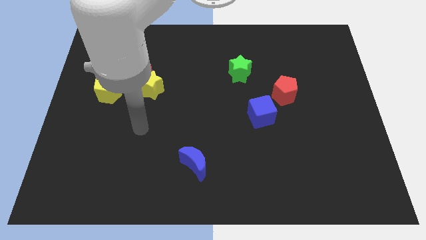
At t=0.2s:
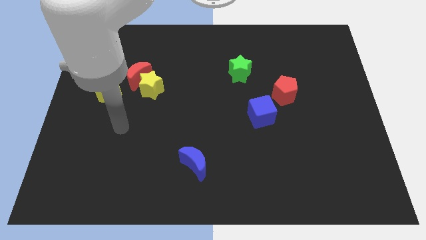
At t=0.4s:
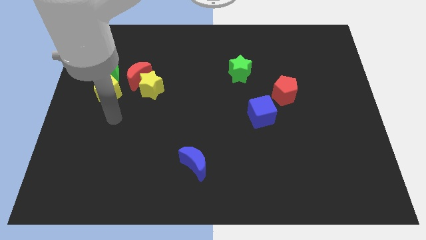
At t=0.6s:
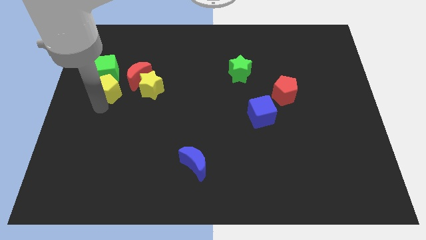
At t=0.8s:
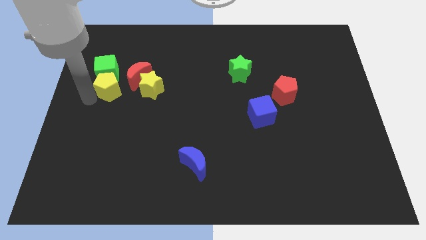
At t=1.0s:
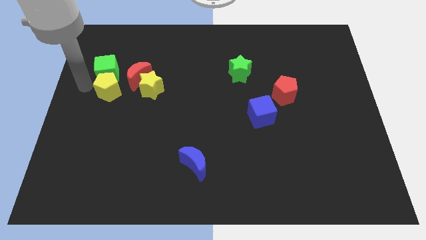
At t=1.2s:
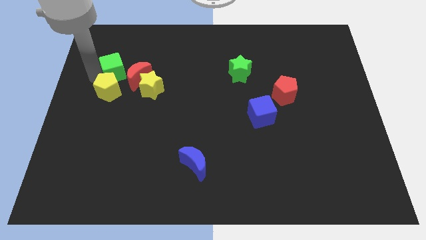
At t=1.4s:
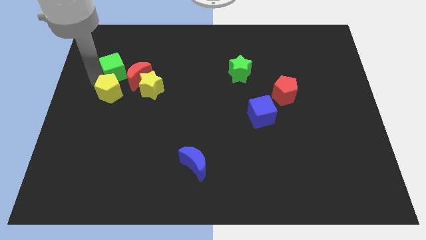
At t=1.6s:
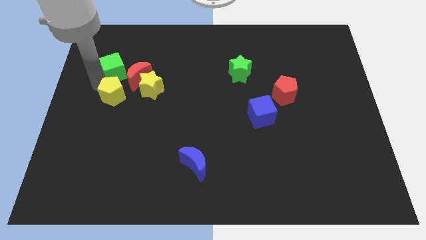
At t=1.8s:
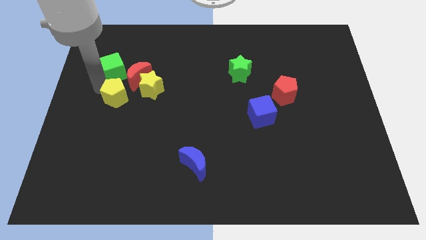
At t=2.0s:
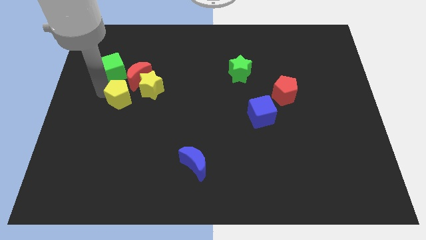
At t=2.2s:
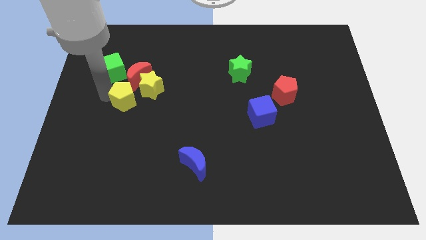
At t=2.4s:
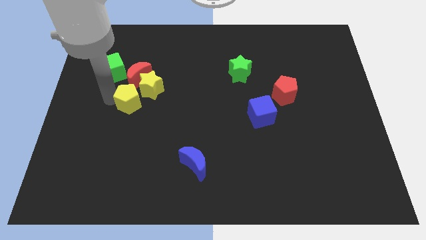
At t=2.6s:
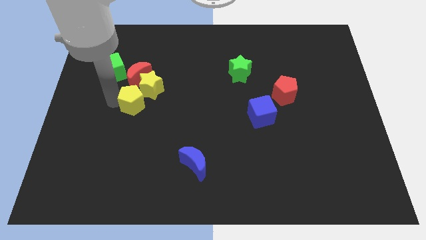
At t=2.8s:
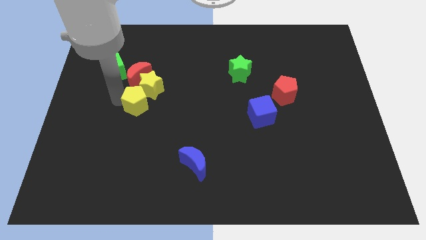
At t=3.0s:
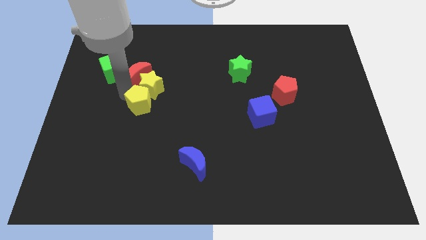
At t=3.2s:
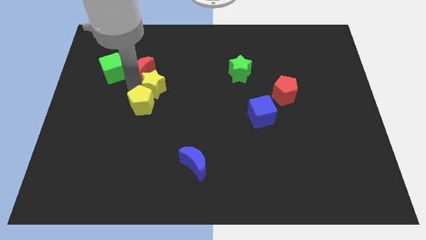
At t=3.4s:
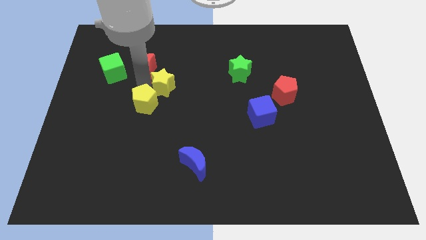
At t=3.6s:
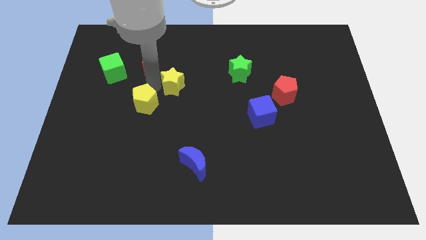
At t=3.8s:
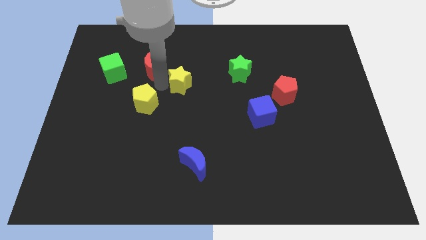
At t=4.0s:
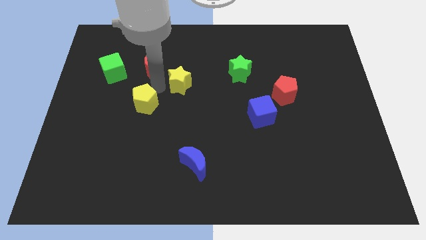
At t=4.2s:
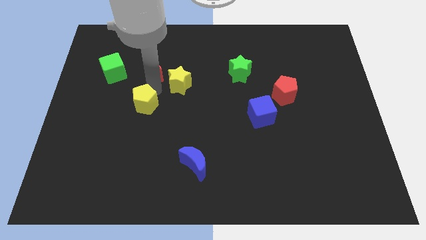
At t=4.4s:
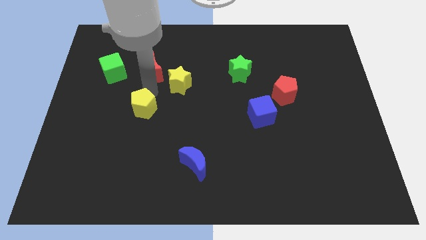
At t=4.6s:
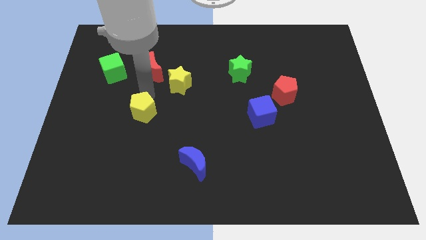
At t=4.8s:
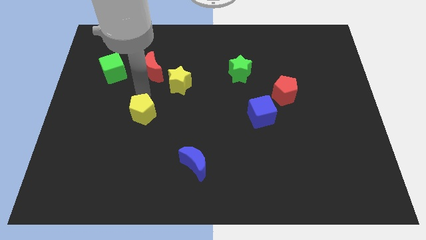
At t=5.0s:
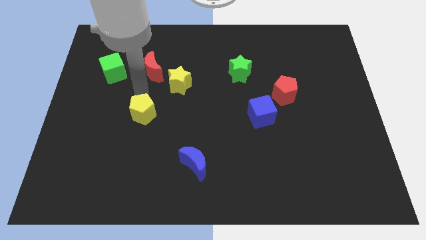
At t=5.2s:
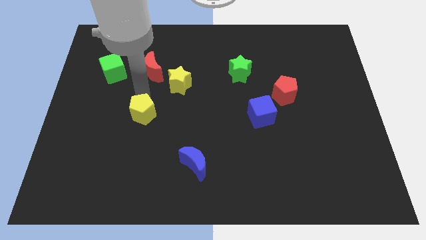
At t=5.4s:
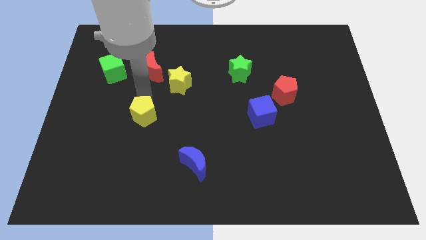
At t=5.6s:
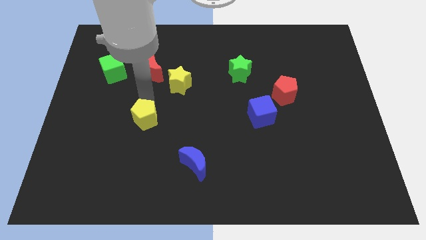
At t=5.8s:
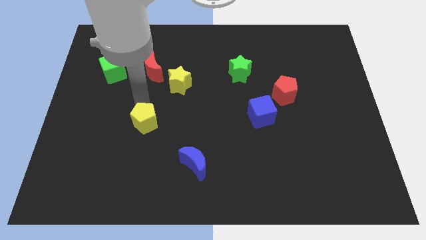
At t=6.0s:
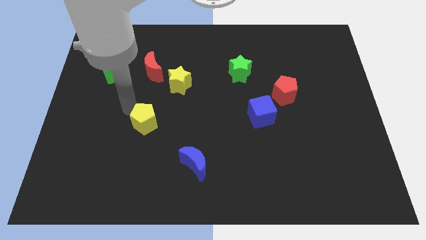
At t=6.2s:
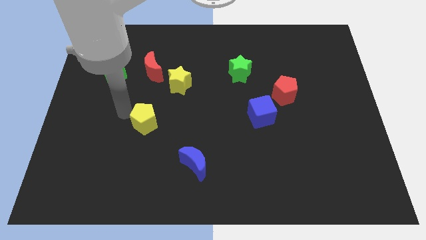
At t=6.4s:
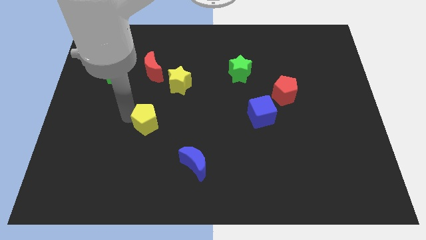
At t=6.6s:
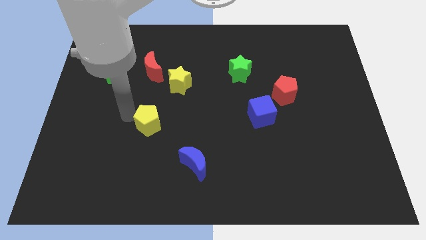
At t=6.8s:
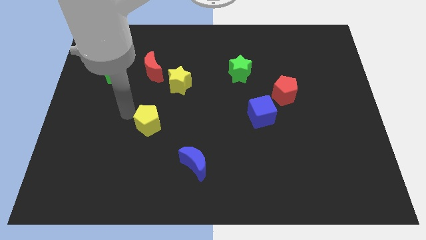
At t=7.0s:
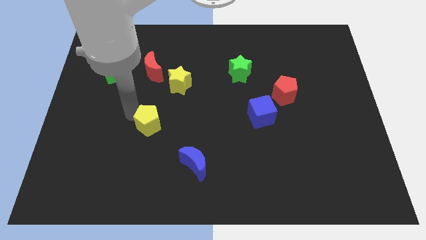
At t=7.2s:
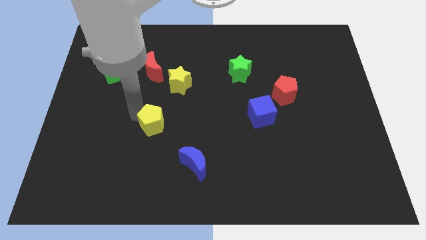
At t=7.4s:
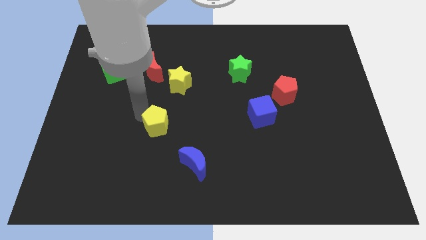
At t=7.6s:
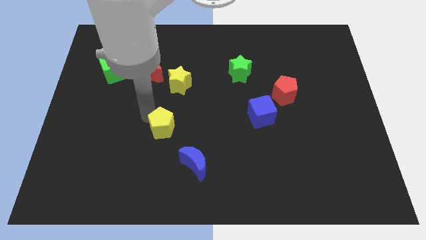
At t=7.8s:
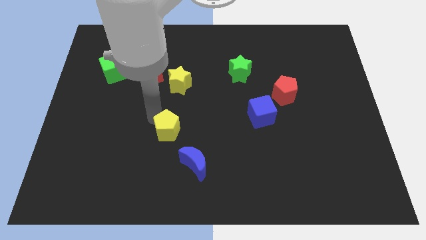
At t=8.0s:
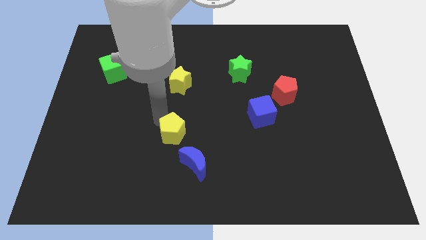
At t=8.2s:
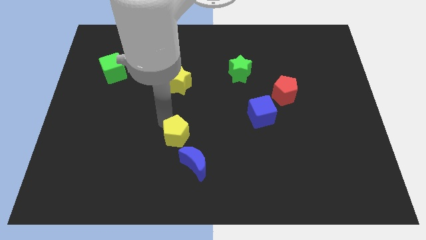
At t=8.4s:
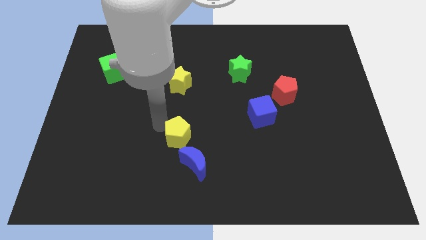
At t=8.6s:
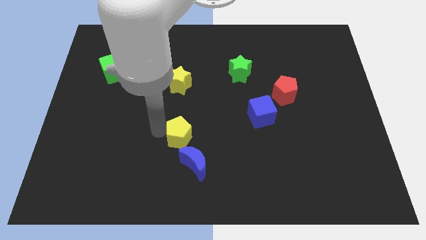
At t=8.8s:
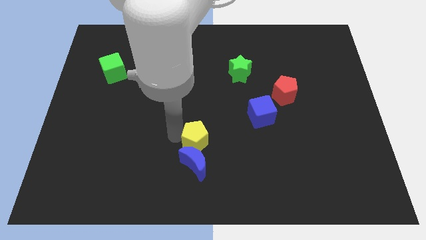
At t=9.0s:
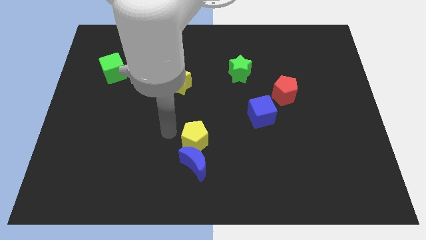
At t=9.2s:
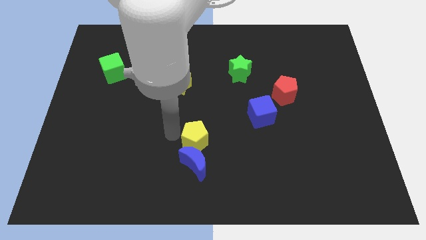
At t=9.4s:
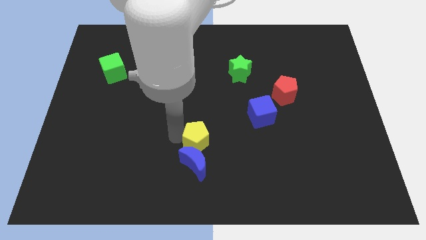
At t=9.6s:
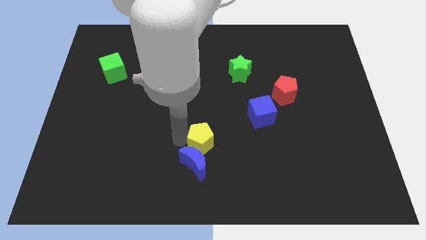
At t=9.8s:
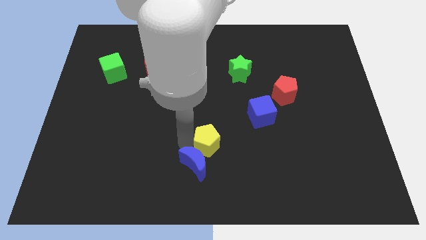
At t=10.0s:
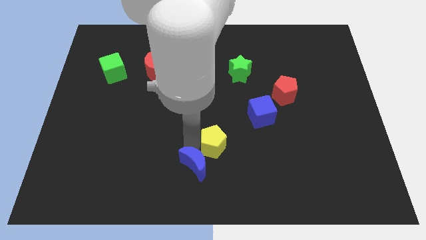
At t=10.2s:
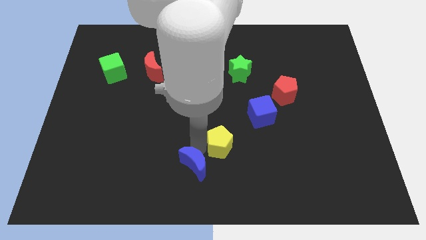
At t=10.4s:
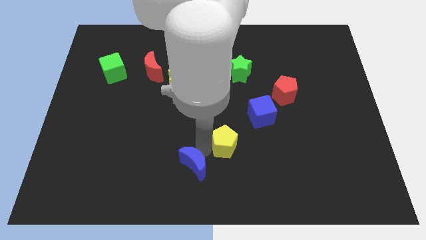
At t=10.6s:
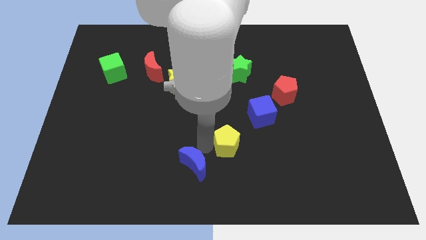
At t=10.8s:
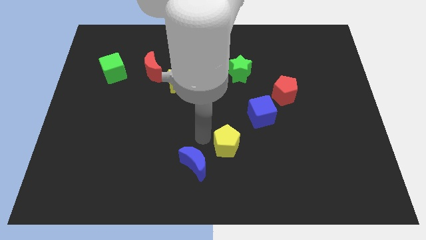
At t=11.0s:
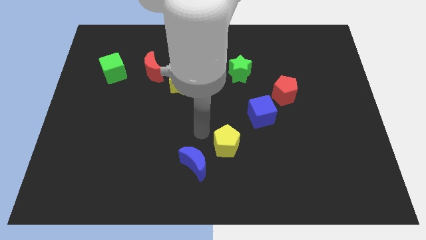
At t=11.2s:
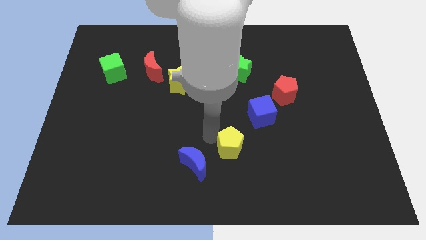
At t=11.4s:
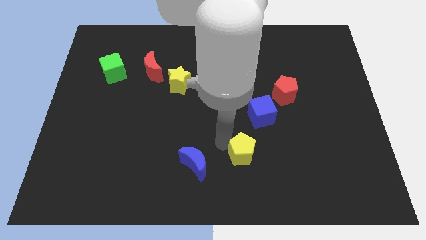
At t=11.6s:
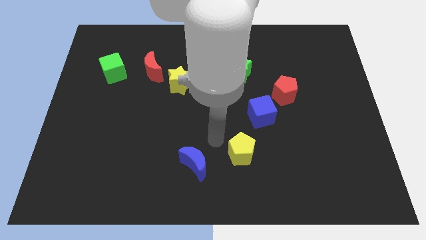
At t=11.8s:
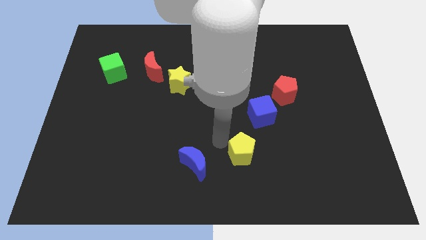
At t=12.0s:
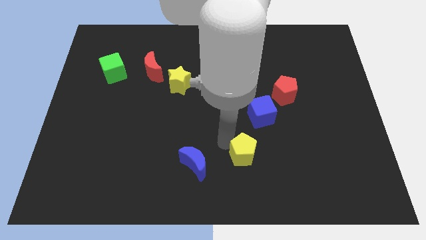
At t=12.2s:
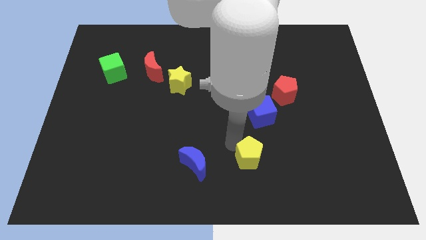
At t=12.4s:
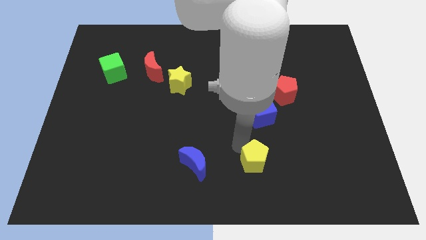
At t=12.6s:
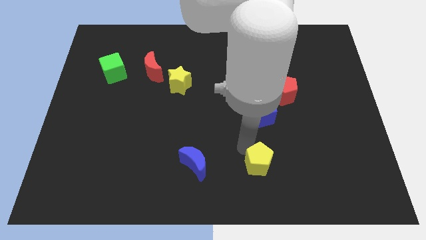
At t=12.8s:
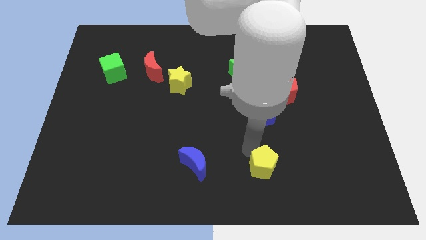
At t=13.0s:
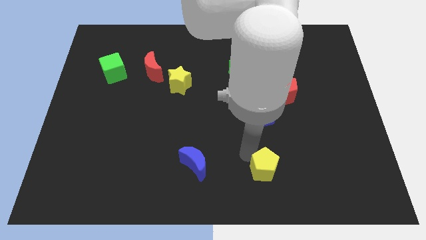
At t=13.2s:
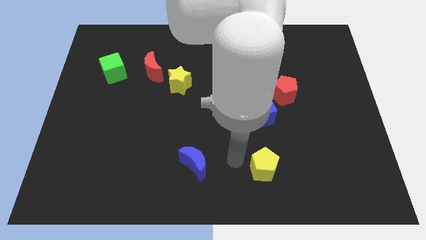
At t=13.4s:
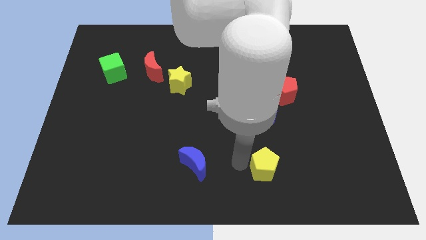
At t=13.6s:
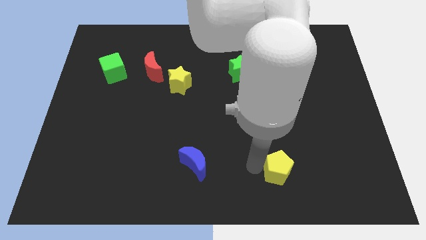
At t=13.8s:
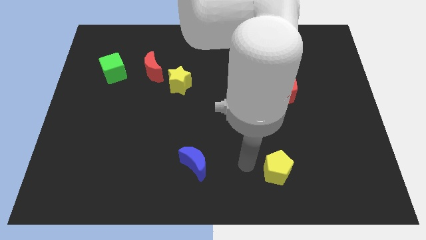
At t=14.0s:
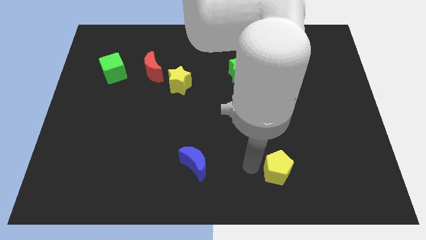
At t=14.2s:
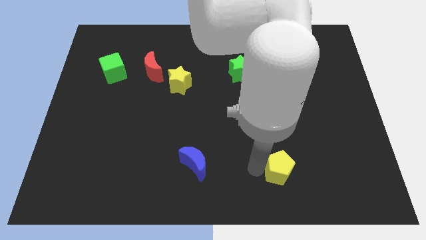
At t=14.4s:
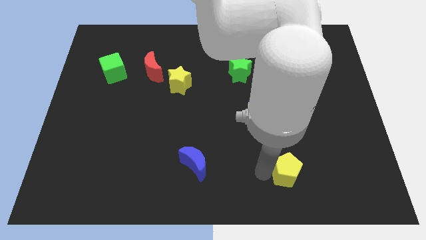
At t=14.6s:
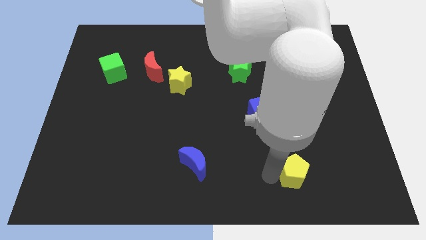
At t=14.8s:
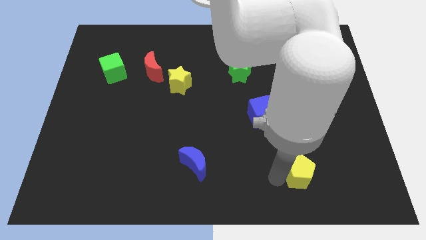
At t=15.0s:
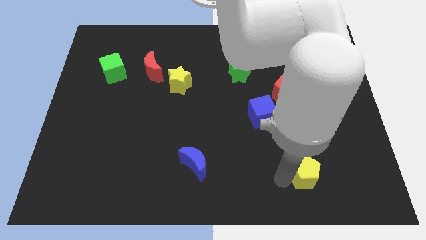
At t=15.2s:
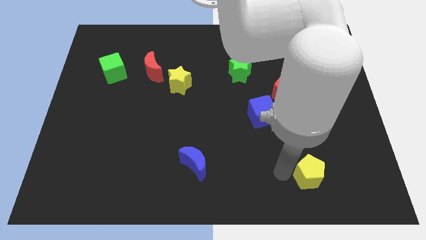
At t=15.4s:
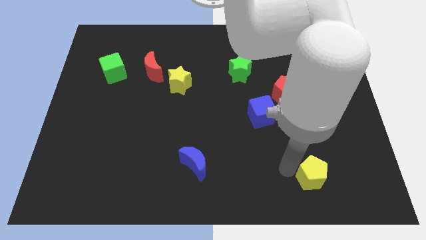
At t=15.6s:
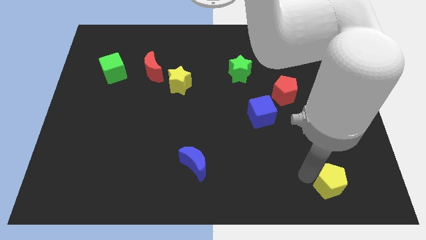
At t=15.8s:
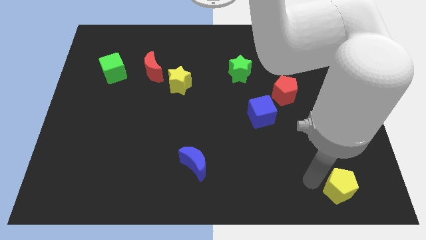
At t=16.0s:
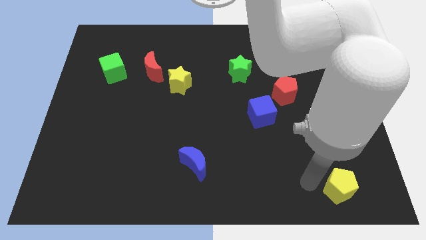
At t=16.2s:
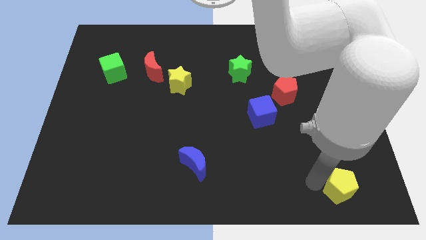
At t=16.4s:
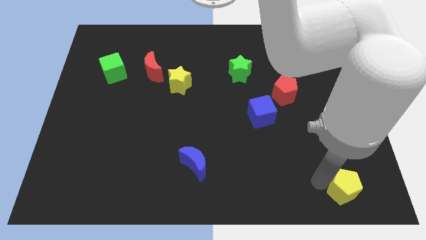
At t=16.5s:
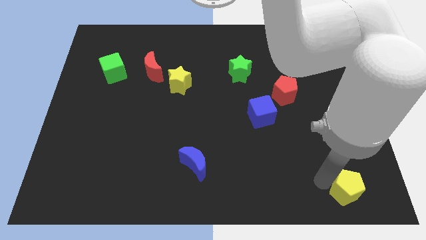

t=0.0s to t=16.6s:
push the yellow pentagon to the lower right corner
